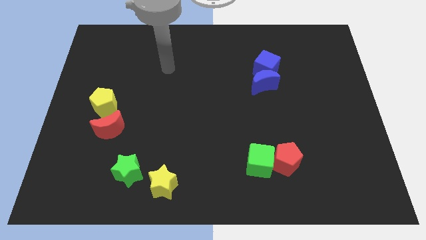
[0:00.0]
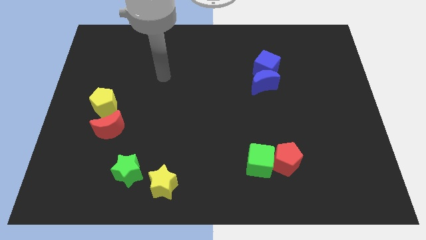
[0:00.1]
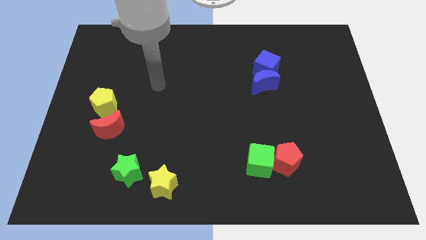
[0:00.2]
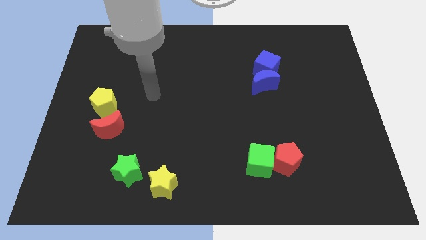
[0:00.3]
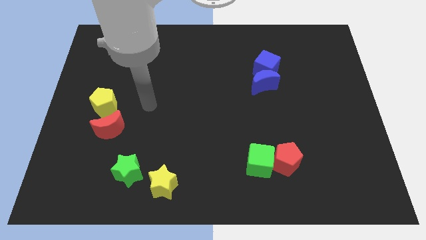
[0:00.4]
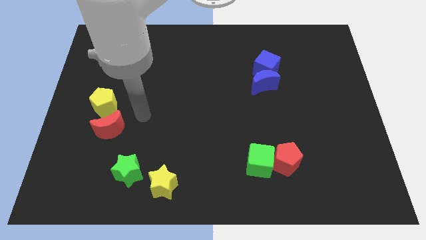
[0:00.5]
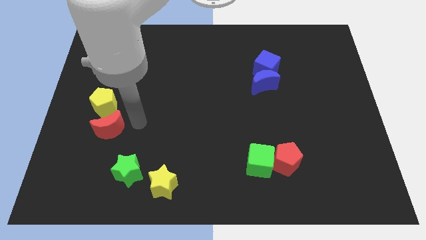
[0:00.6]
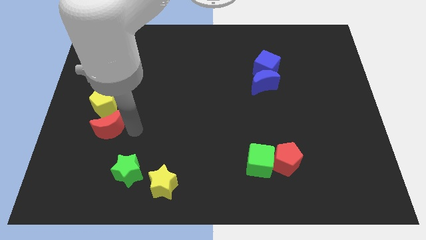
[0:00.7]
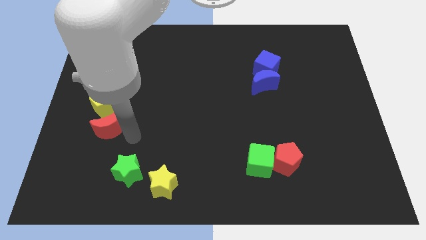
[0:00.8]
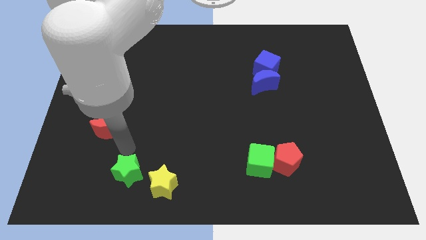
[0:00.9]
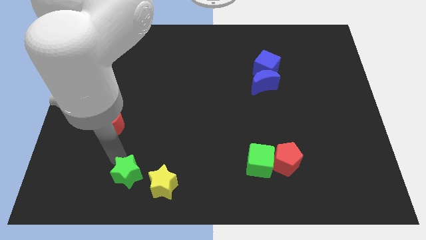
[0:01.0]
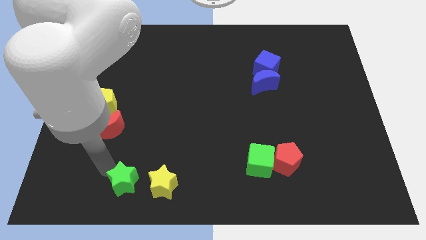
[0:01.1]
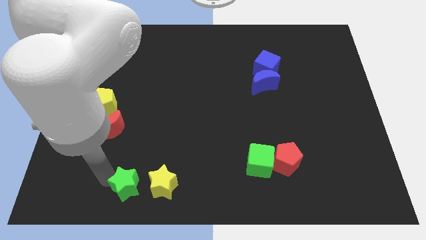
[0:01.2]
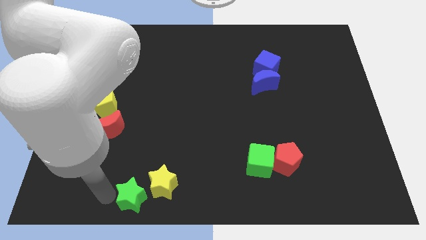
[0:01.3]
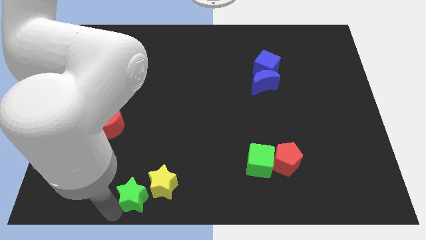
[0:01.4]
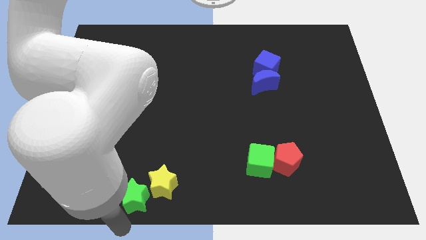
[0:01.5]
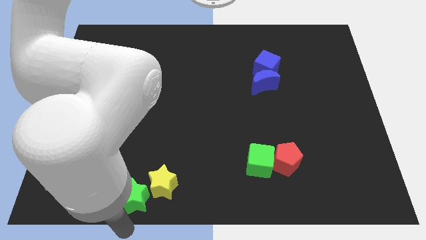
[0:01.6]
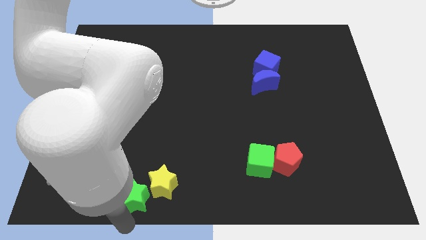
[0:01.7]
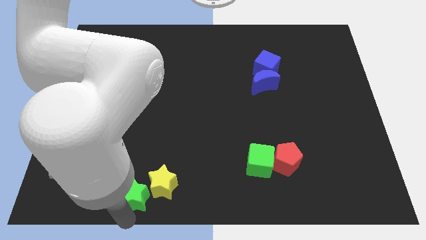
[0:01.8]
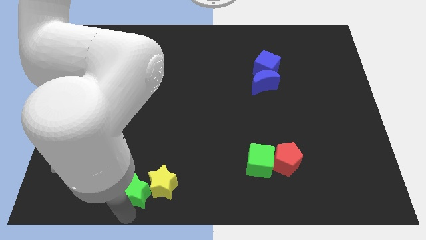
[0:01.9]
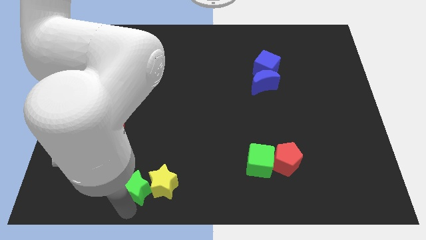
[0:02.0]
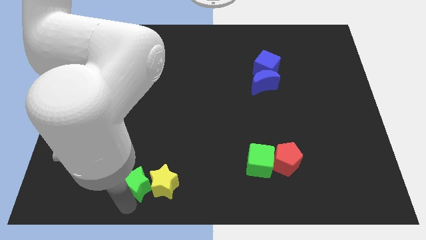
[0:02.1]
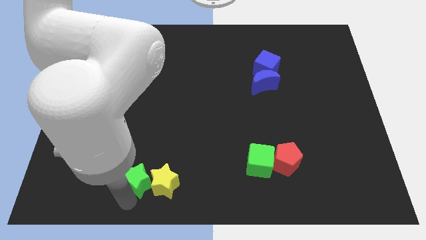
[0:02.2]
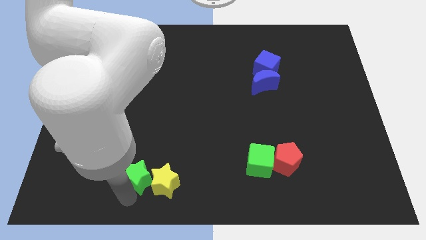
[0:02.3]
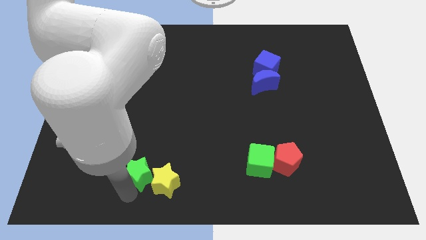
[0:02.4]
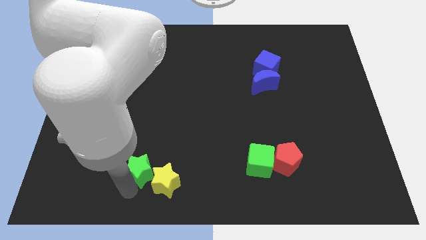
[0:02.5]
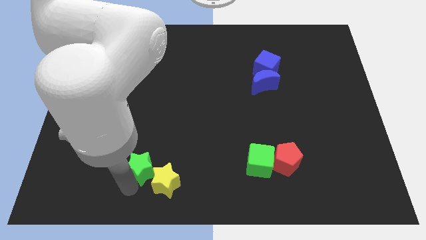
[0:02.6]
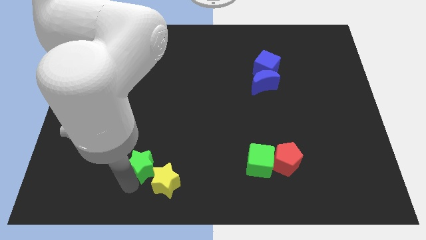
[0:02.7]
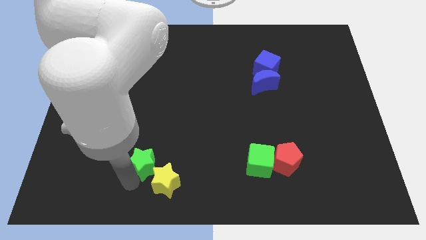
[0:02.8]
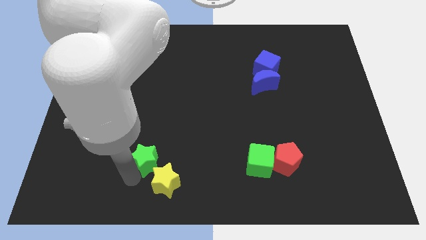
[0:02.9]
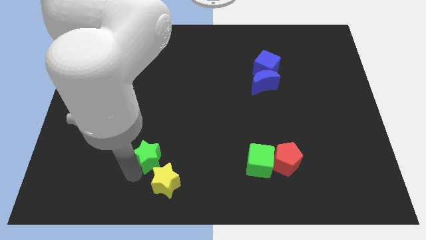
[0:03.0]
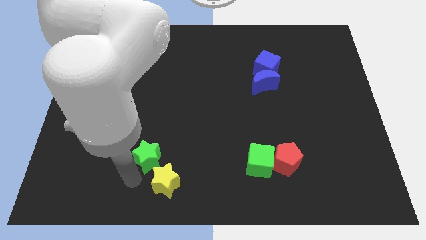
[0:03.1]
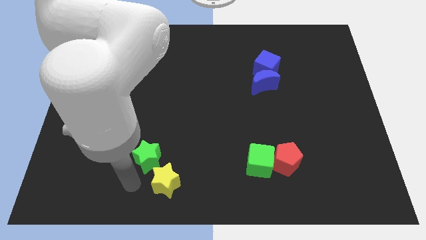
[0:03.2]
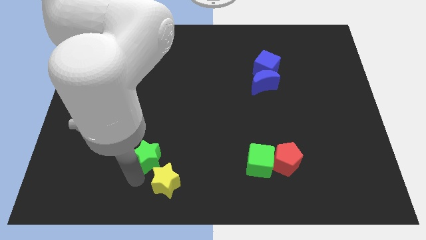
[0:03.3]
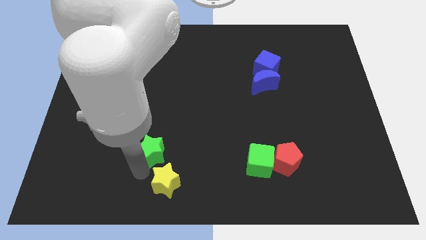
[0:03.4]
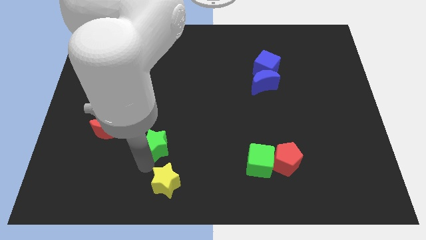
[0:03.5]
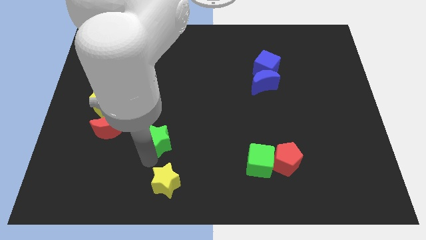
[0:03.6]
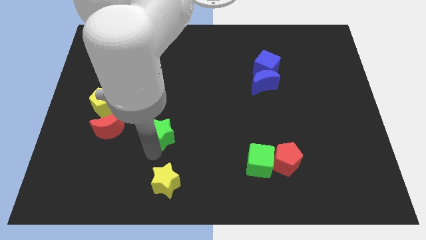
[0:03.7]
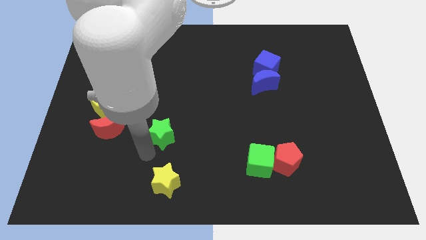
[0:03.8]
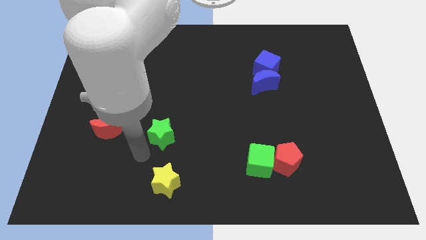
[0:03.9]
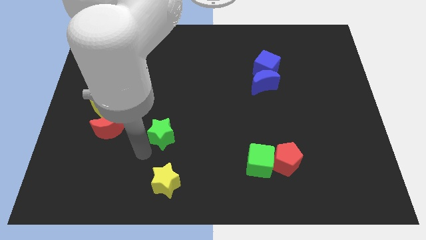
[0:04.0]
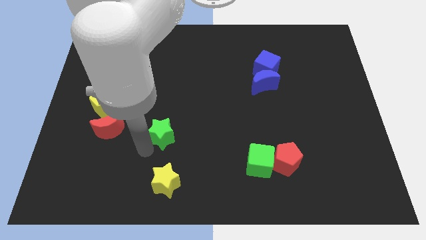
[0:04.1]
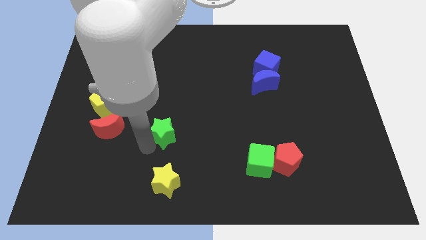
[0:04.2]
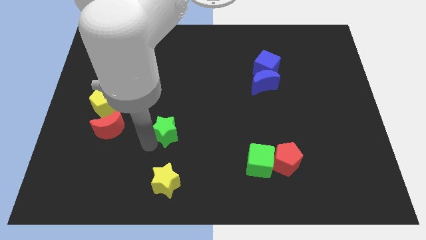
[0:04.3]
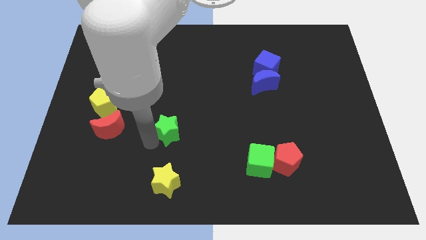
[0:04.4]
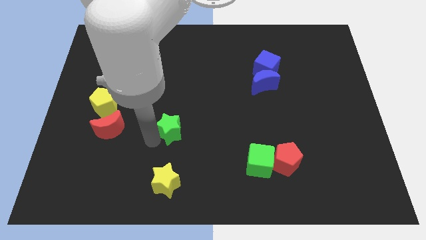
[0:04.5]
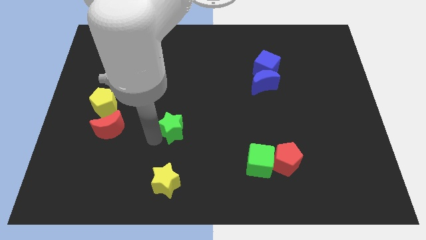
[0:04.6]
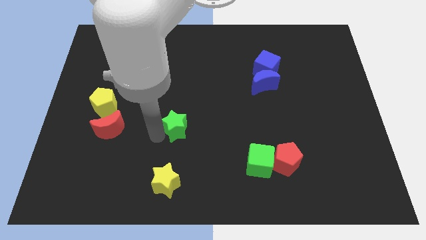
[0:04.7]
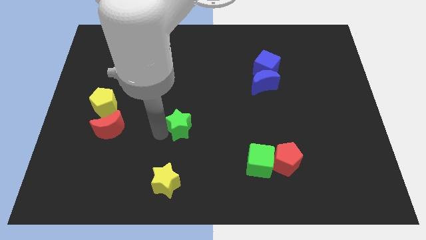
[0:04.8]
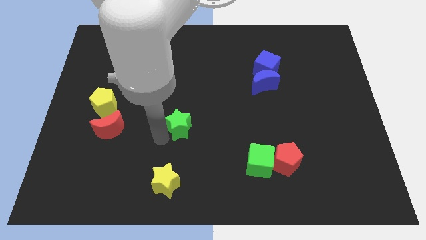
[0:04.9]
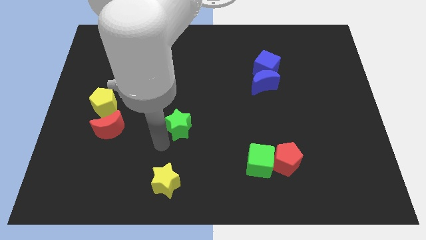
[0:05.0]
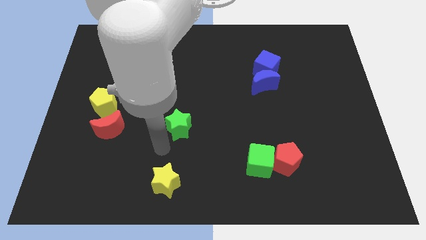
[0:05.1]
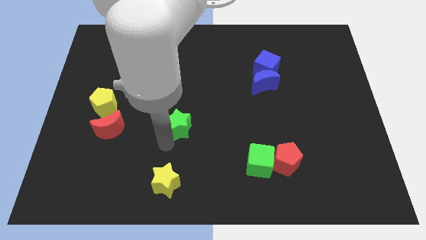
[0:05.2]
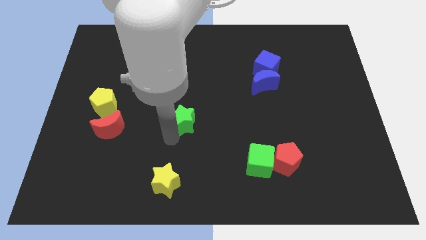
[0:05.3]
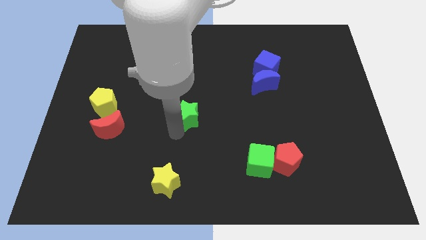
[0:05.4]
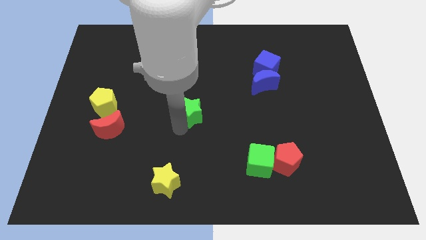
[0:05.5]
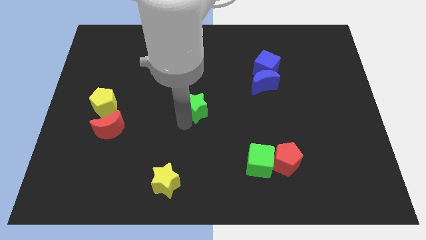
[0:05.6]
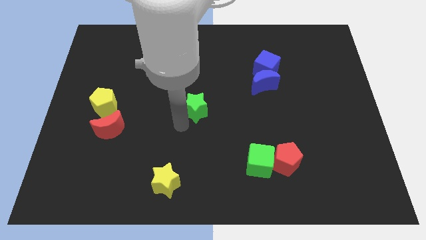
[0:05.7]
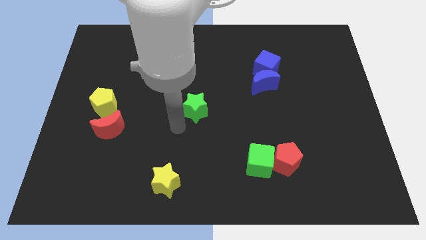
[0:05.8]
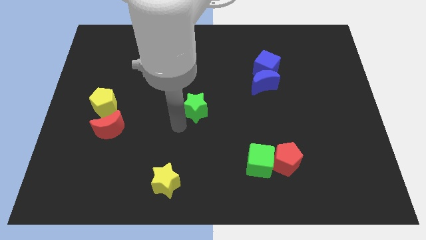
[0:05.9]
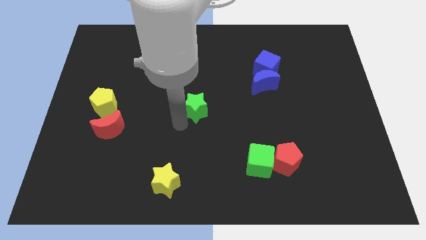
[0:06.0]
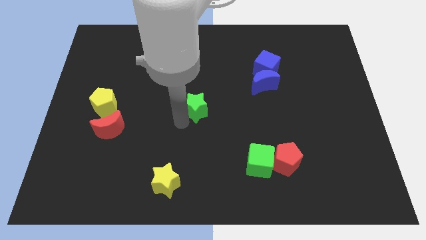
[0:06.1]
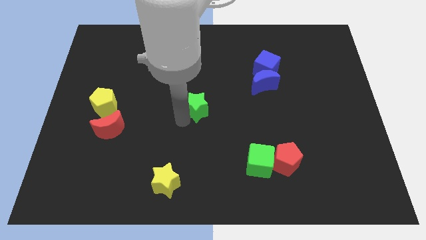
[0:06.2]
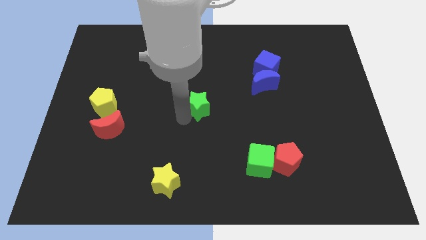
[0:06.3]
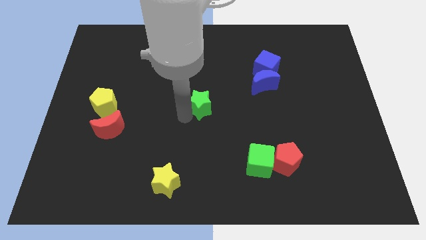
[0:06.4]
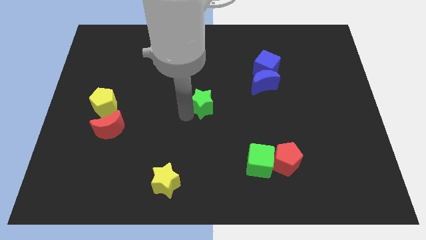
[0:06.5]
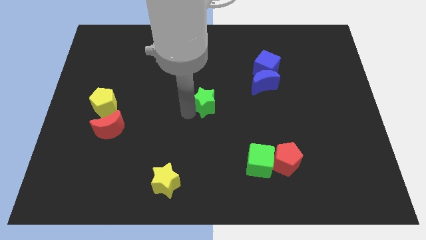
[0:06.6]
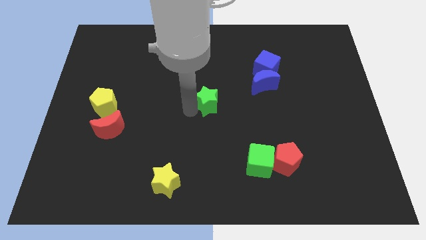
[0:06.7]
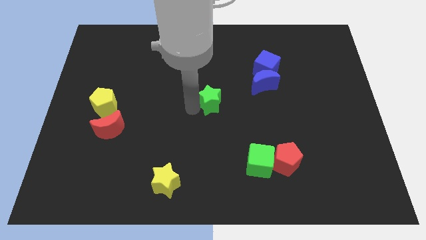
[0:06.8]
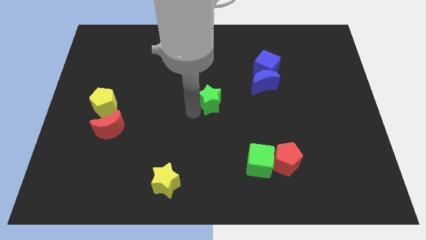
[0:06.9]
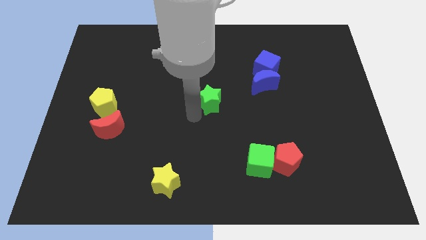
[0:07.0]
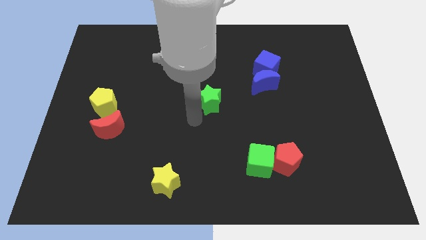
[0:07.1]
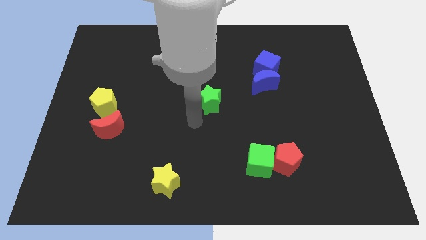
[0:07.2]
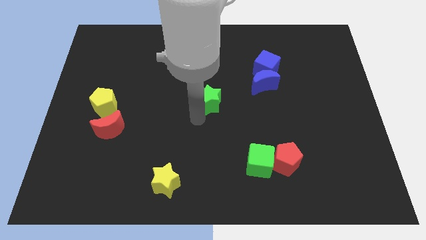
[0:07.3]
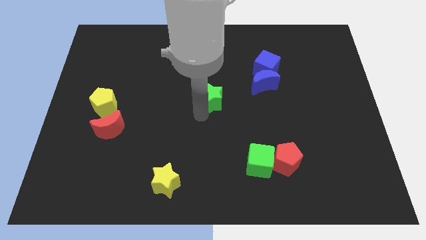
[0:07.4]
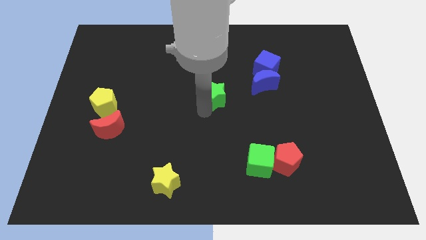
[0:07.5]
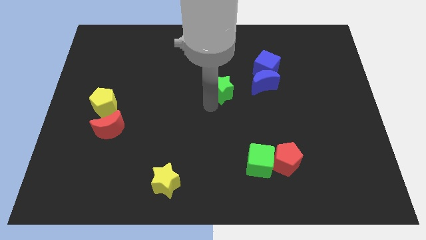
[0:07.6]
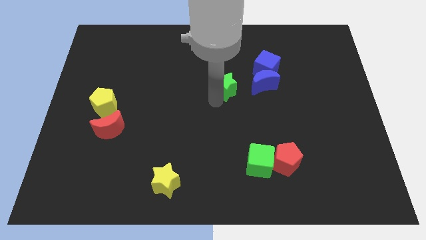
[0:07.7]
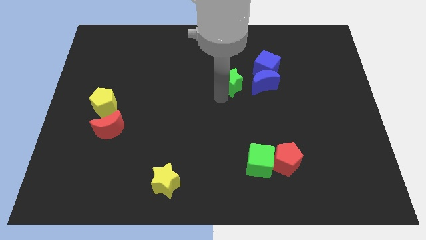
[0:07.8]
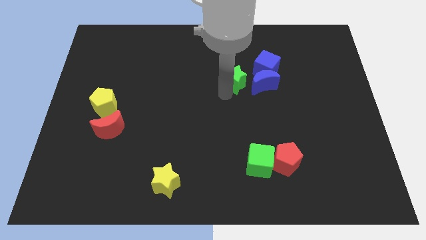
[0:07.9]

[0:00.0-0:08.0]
move the green star diagonally up and to the left of the blue moon
